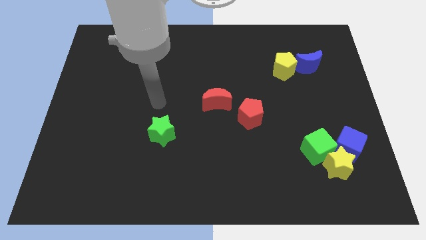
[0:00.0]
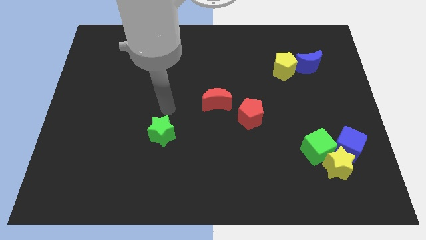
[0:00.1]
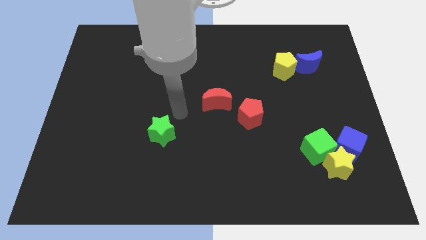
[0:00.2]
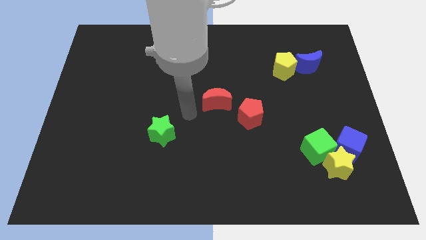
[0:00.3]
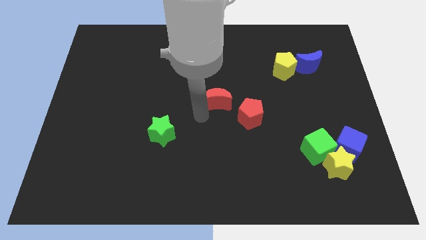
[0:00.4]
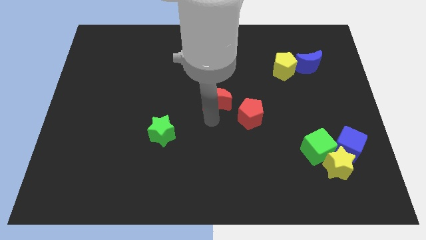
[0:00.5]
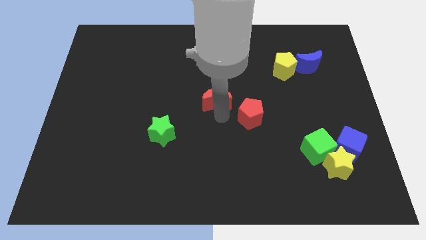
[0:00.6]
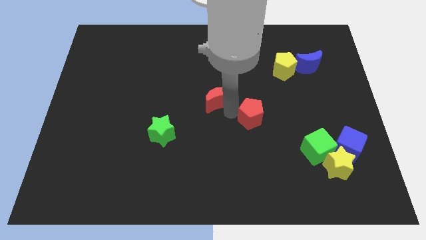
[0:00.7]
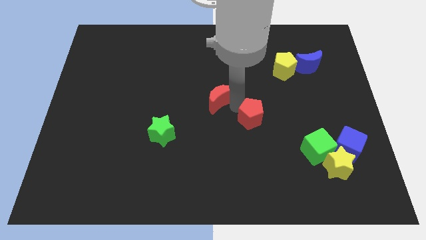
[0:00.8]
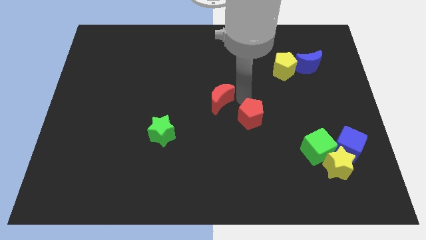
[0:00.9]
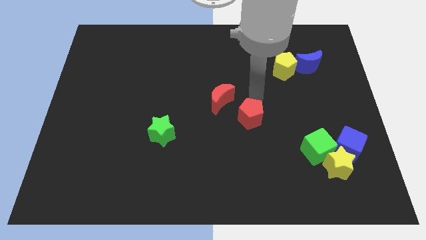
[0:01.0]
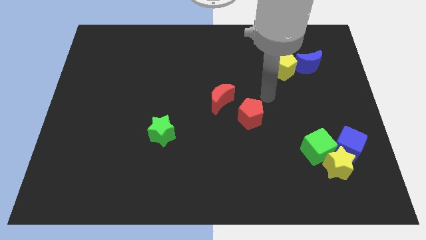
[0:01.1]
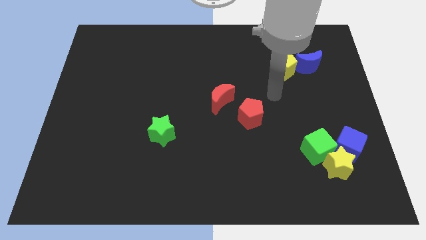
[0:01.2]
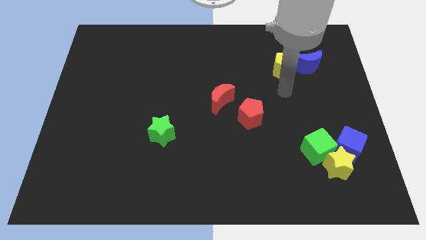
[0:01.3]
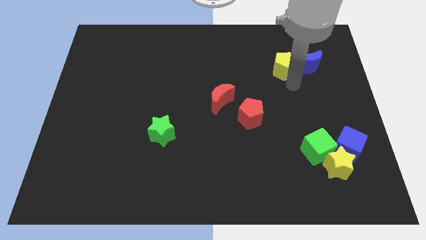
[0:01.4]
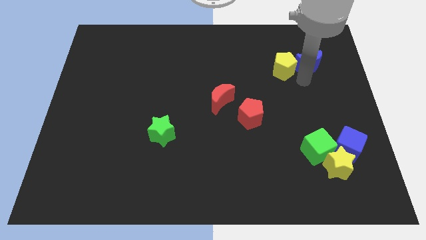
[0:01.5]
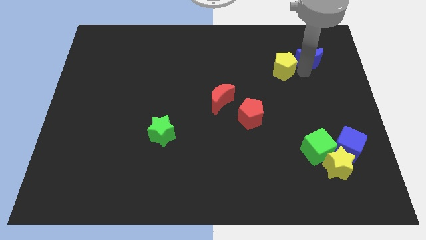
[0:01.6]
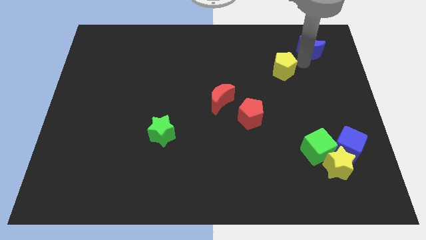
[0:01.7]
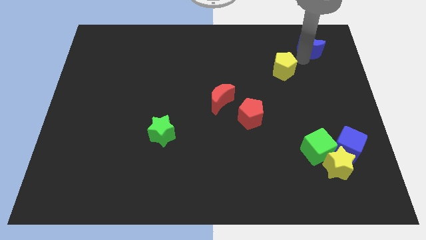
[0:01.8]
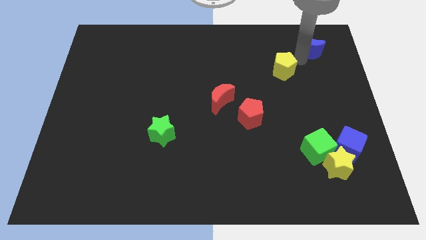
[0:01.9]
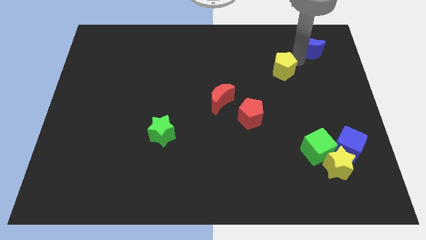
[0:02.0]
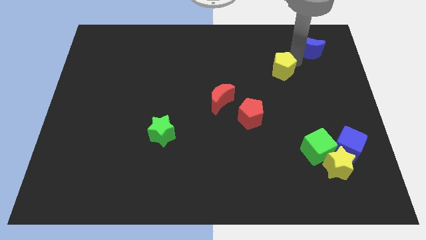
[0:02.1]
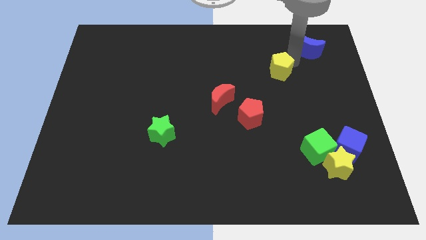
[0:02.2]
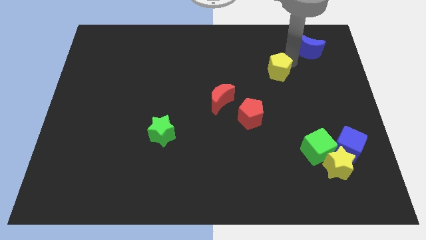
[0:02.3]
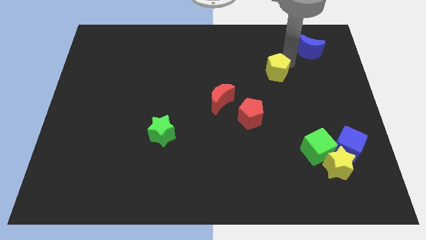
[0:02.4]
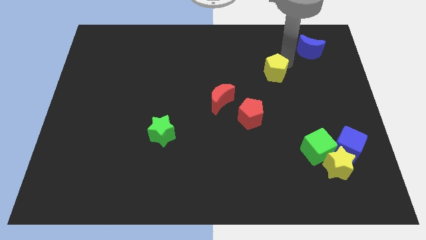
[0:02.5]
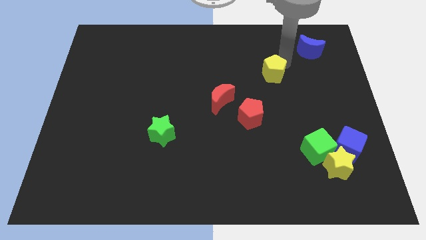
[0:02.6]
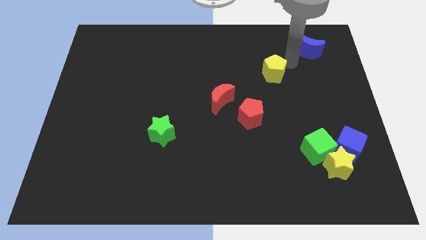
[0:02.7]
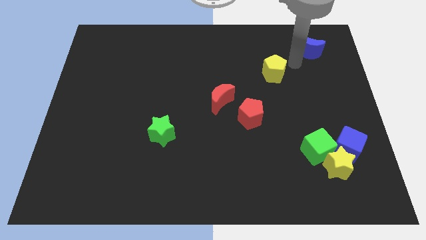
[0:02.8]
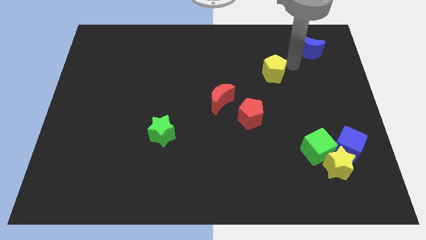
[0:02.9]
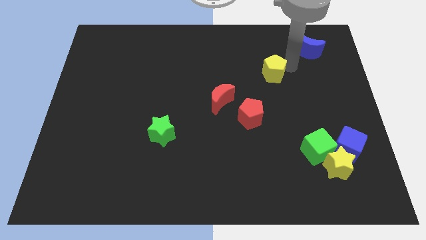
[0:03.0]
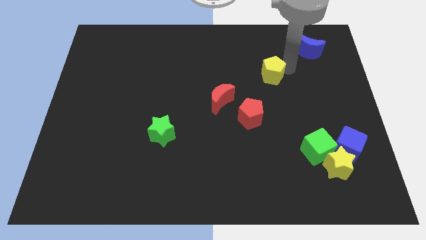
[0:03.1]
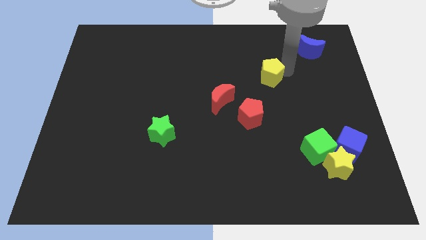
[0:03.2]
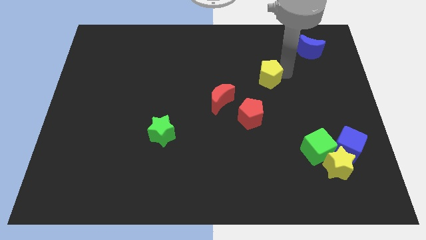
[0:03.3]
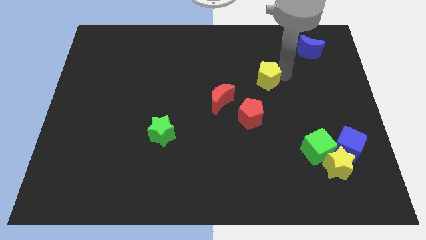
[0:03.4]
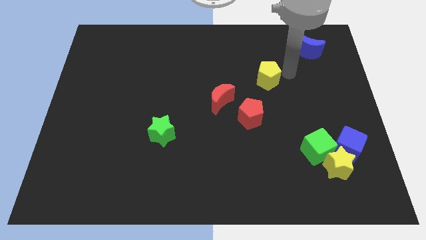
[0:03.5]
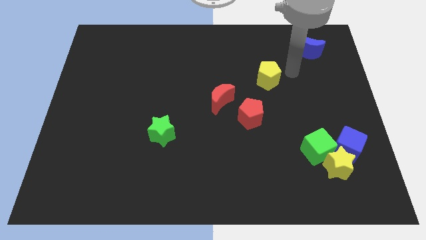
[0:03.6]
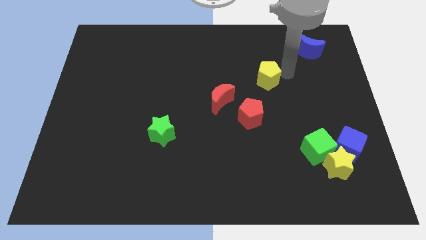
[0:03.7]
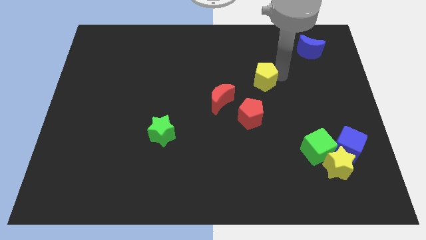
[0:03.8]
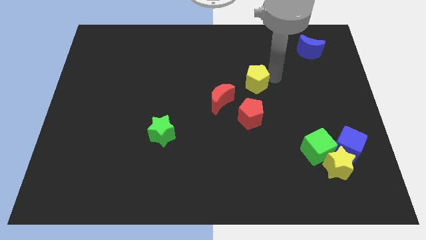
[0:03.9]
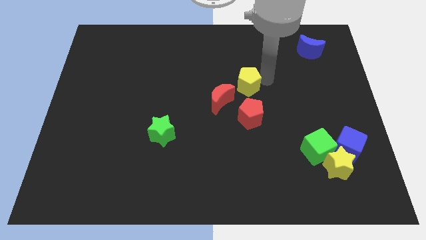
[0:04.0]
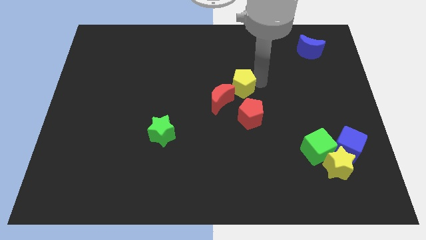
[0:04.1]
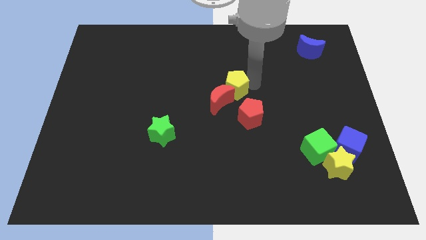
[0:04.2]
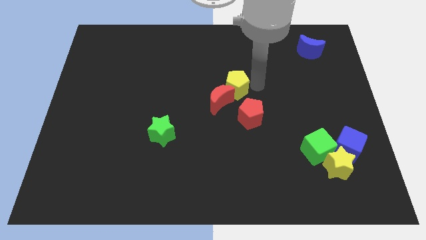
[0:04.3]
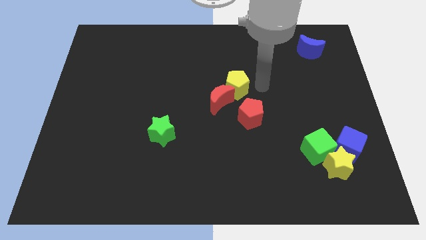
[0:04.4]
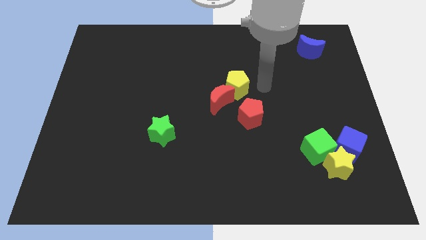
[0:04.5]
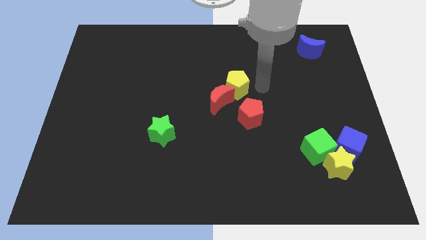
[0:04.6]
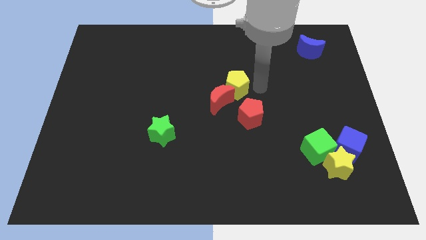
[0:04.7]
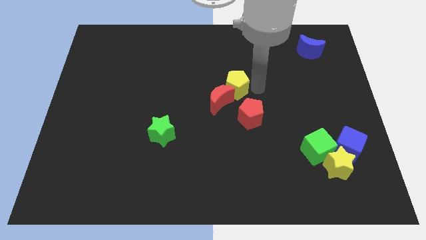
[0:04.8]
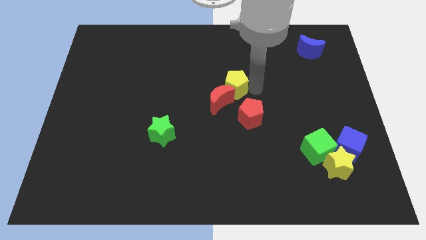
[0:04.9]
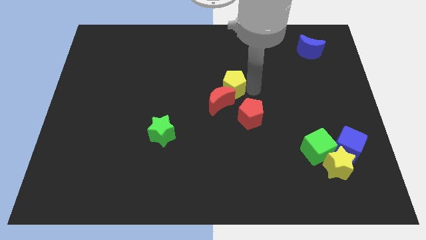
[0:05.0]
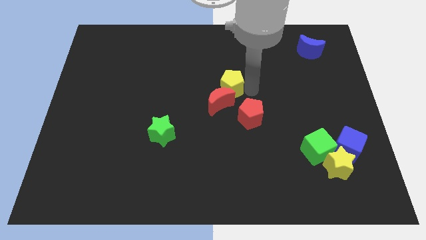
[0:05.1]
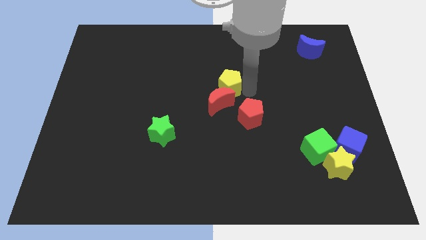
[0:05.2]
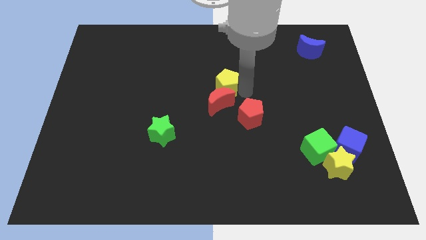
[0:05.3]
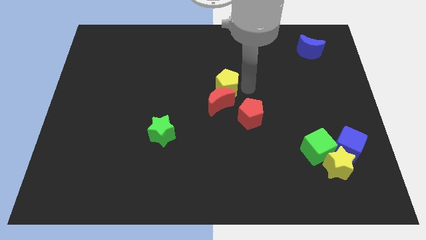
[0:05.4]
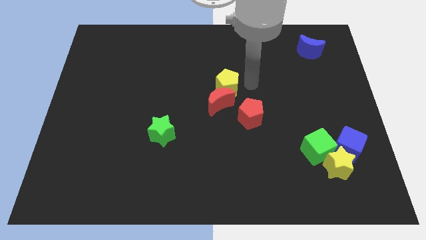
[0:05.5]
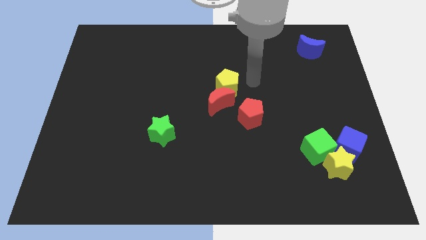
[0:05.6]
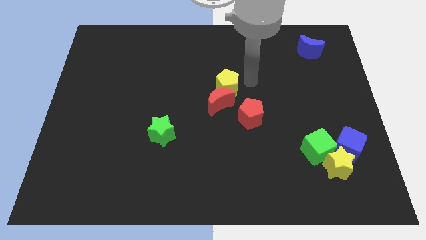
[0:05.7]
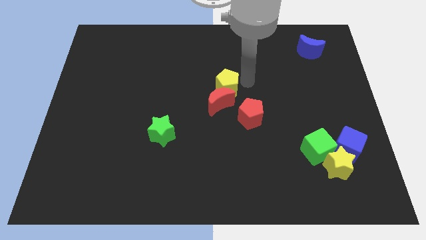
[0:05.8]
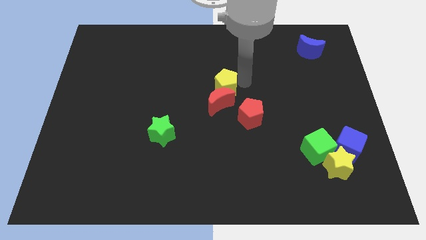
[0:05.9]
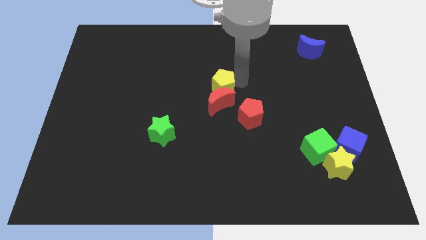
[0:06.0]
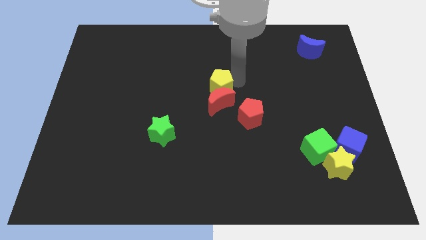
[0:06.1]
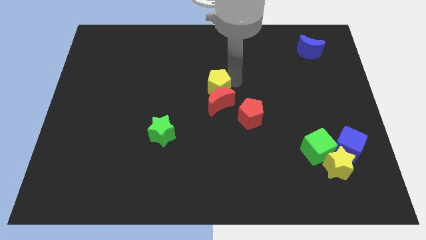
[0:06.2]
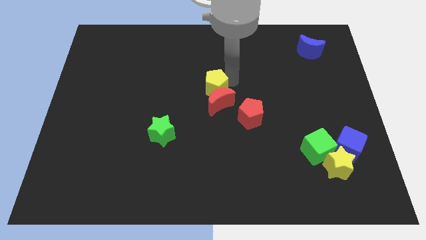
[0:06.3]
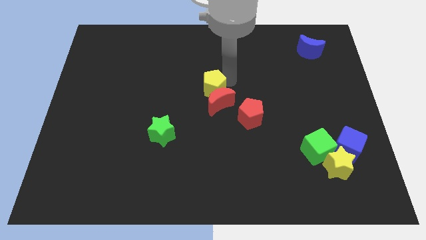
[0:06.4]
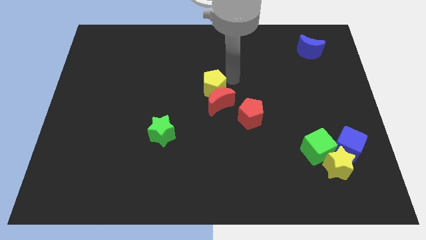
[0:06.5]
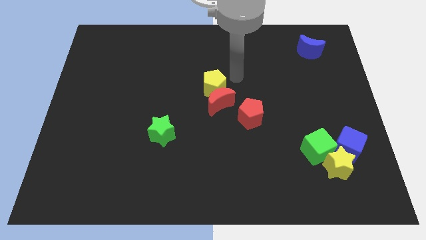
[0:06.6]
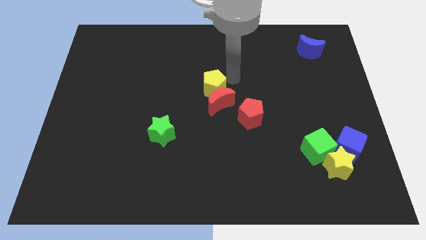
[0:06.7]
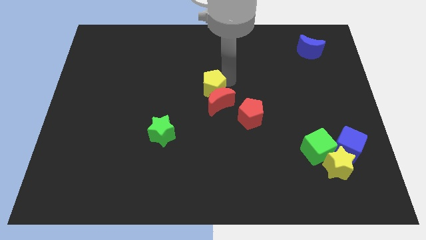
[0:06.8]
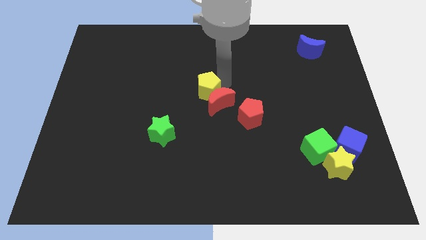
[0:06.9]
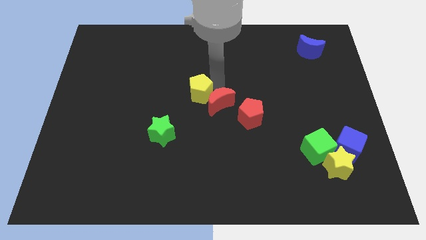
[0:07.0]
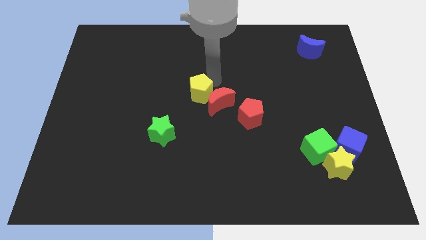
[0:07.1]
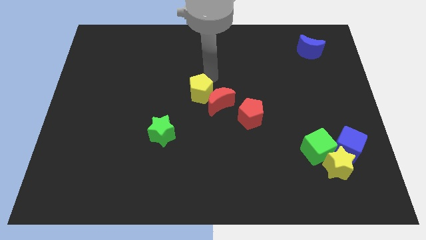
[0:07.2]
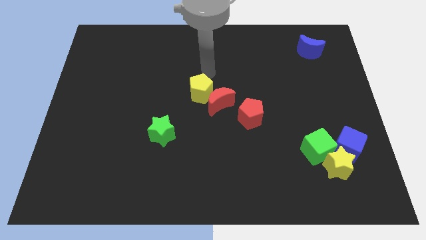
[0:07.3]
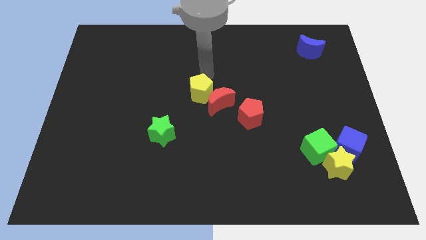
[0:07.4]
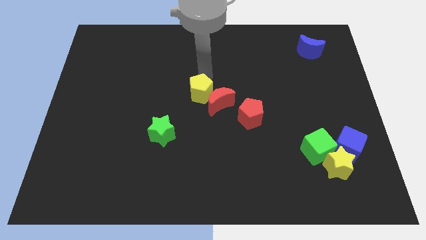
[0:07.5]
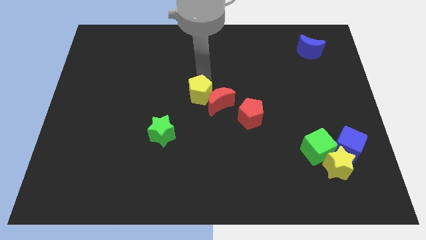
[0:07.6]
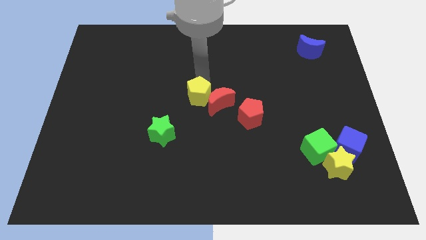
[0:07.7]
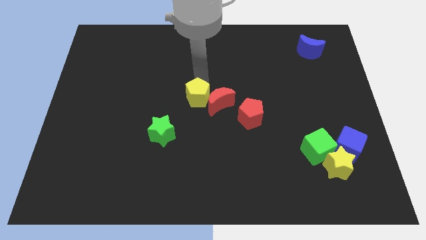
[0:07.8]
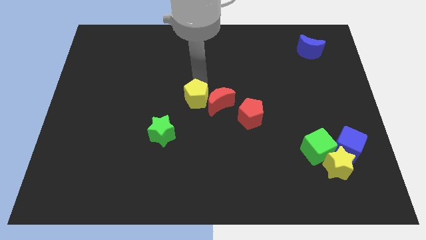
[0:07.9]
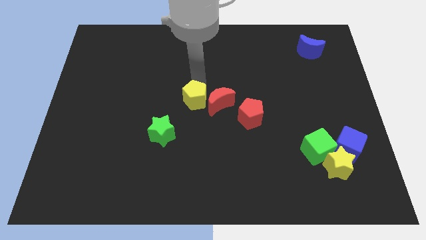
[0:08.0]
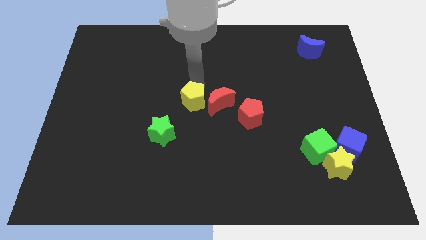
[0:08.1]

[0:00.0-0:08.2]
slide the yellow pentagon down and to the left

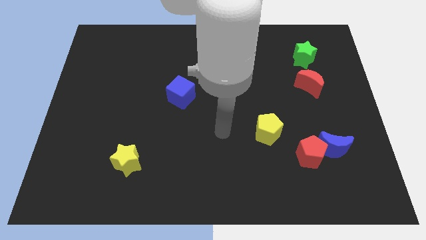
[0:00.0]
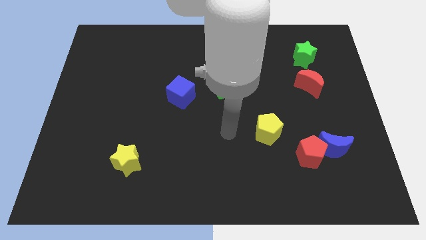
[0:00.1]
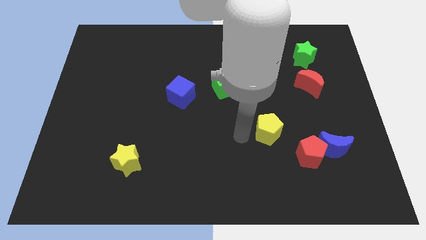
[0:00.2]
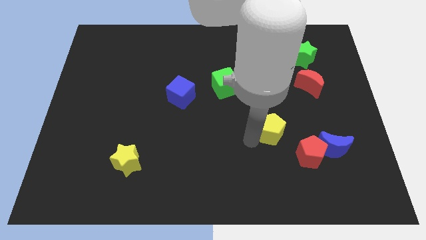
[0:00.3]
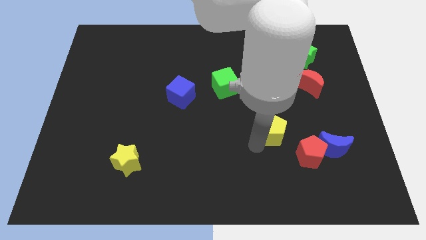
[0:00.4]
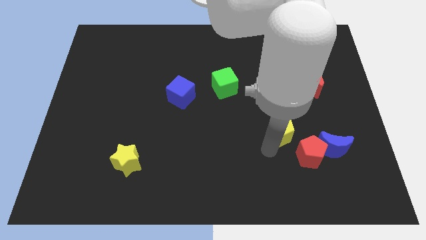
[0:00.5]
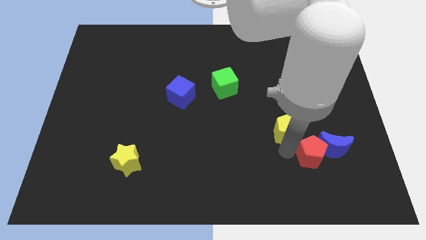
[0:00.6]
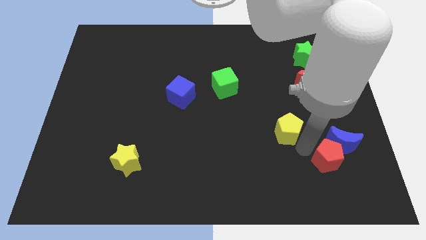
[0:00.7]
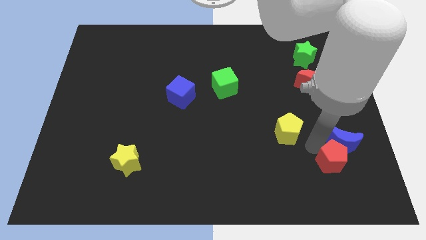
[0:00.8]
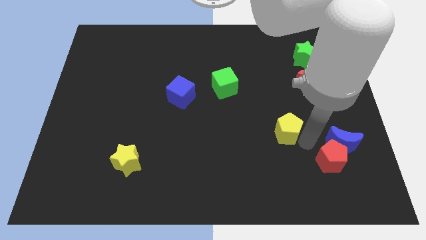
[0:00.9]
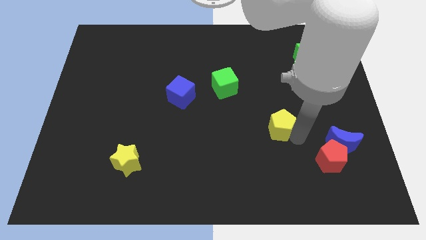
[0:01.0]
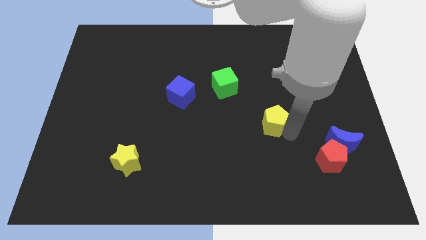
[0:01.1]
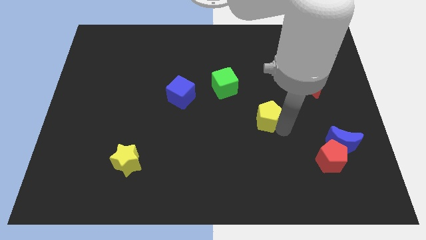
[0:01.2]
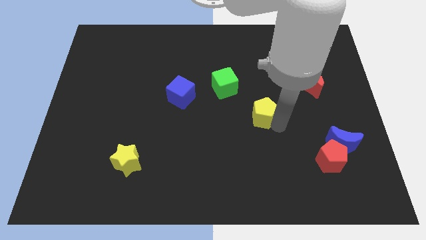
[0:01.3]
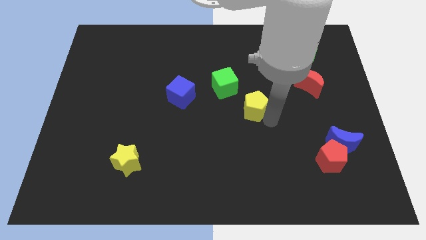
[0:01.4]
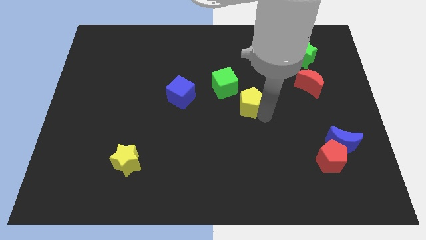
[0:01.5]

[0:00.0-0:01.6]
push the yellow pentagon a little bit up and then left
